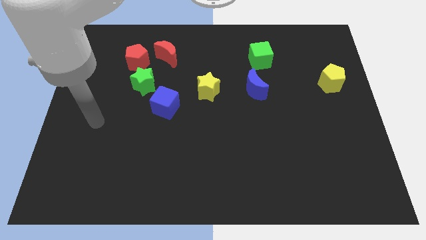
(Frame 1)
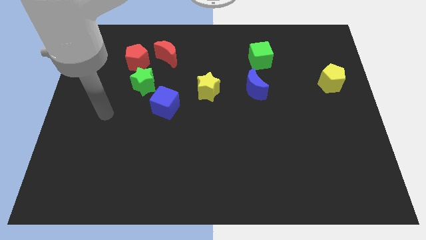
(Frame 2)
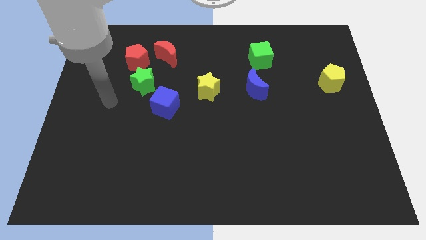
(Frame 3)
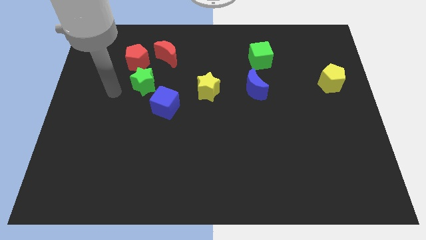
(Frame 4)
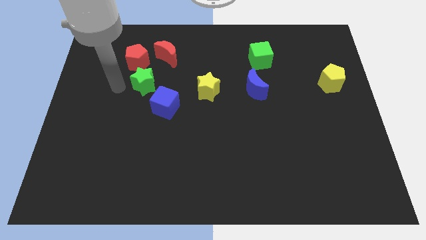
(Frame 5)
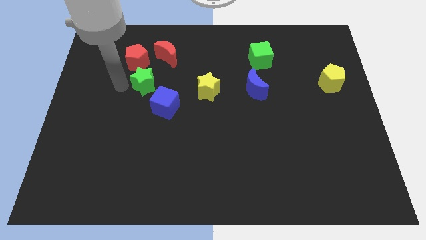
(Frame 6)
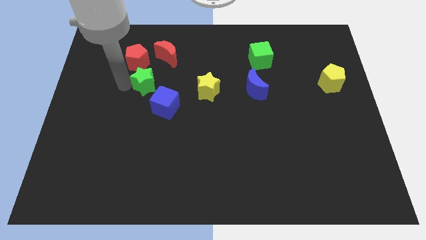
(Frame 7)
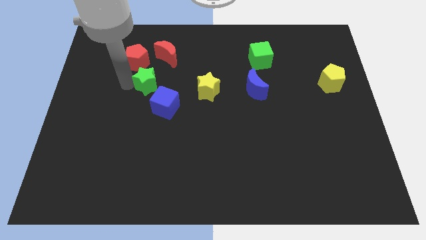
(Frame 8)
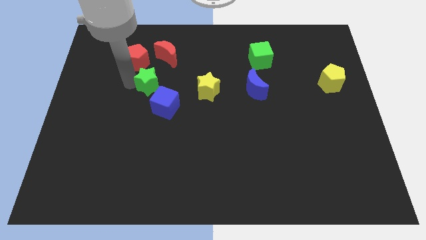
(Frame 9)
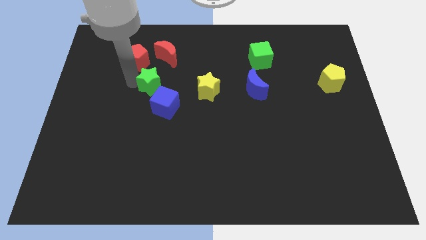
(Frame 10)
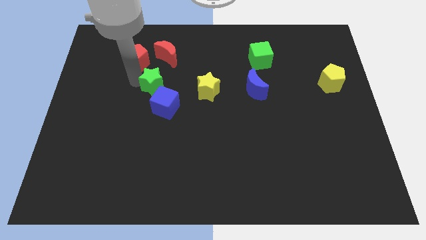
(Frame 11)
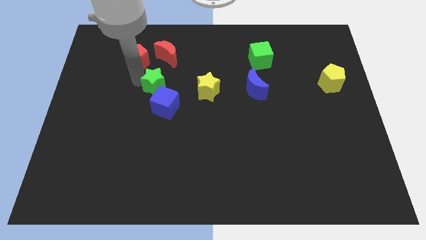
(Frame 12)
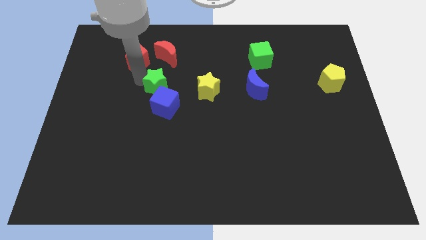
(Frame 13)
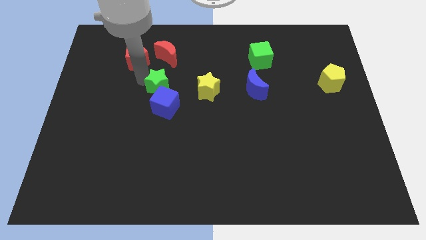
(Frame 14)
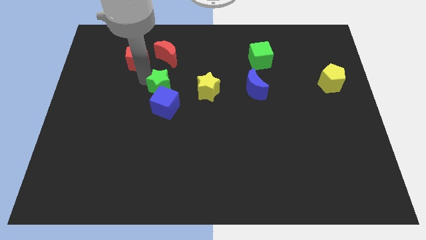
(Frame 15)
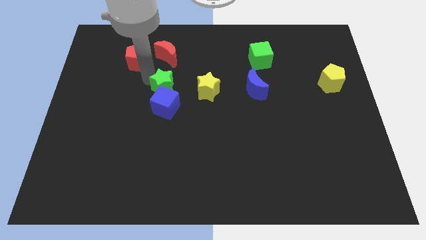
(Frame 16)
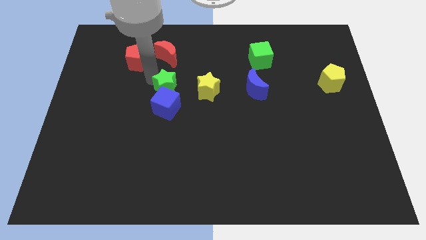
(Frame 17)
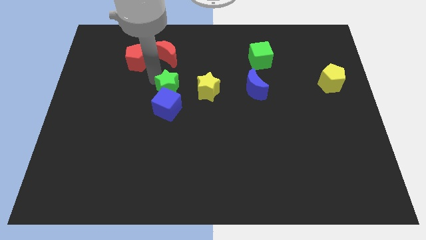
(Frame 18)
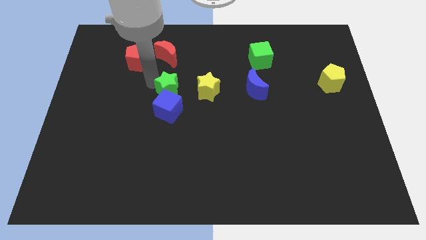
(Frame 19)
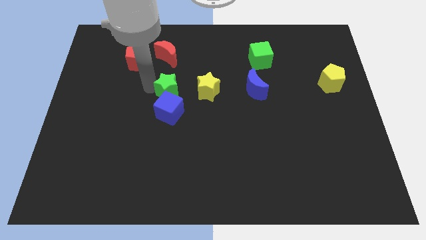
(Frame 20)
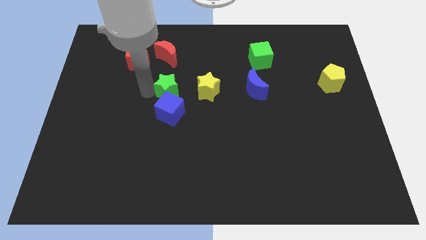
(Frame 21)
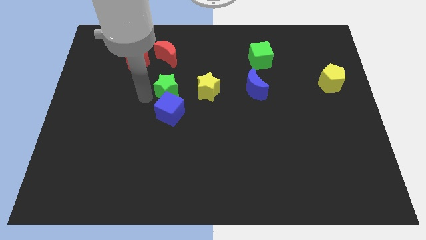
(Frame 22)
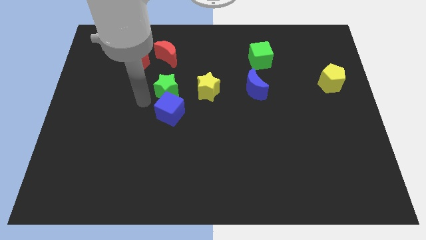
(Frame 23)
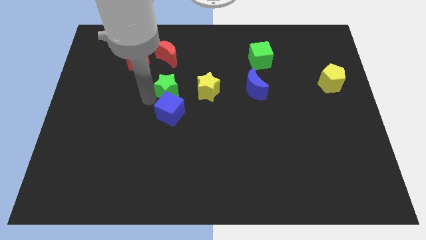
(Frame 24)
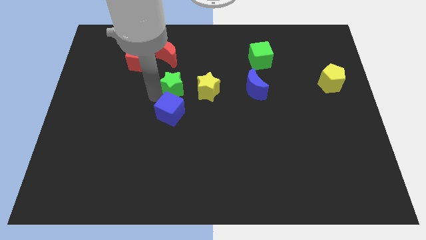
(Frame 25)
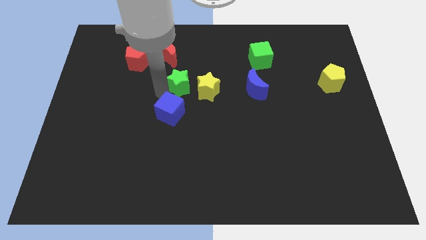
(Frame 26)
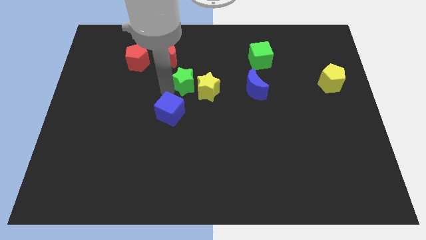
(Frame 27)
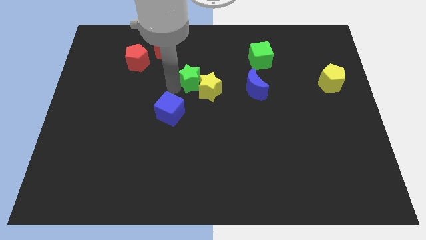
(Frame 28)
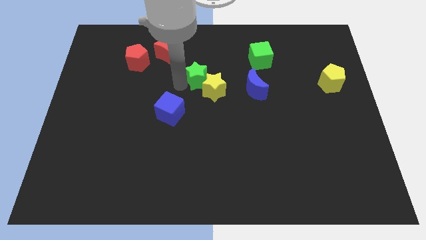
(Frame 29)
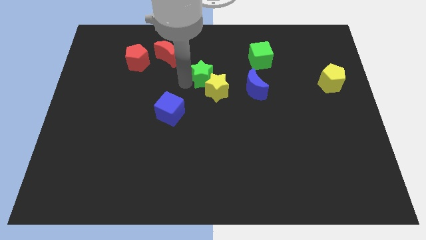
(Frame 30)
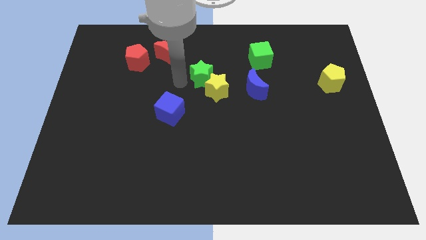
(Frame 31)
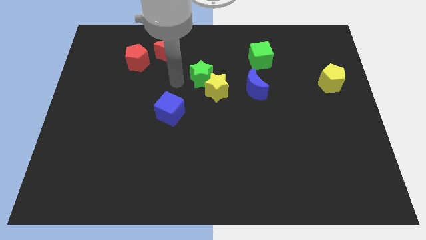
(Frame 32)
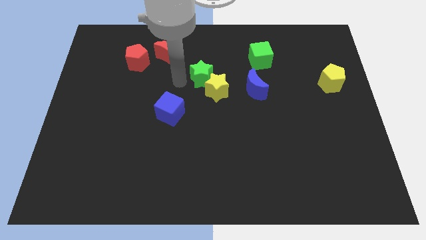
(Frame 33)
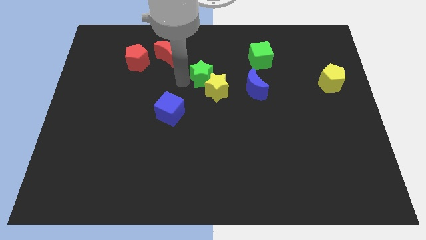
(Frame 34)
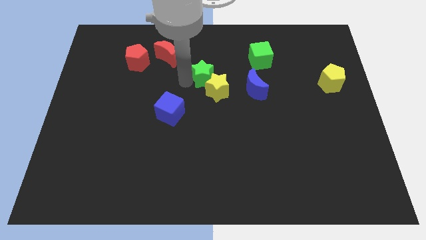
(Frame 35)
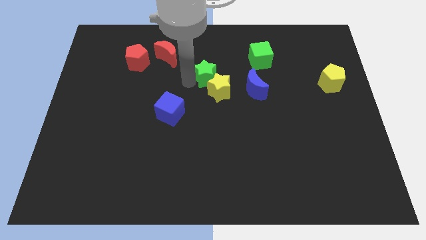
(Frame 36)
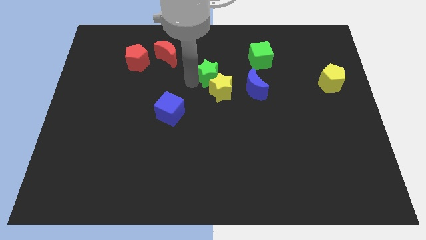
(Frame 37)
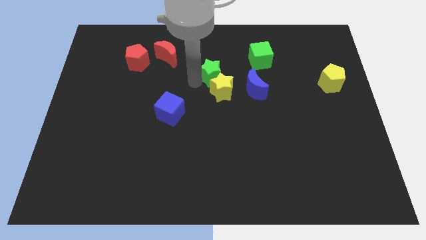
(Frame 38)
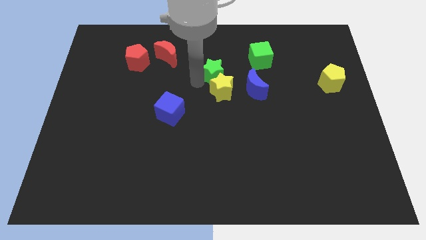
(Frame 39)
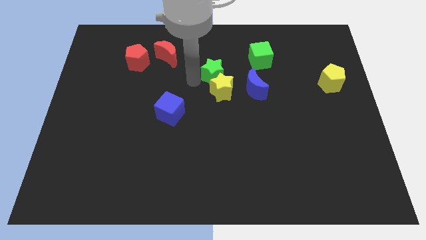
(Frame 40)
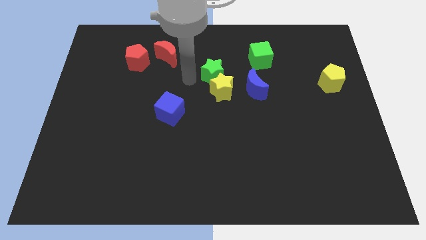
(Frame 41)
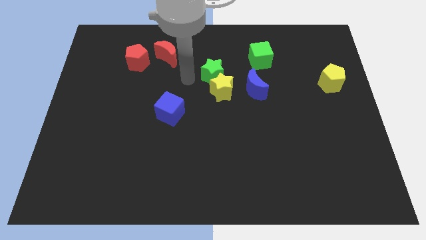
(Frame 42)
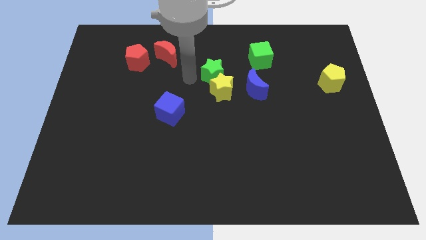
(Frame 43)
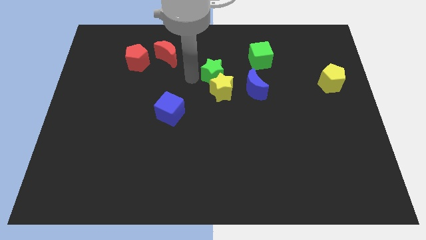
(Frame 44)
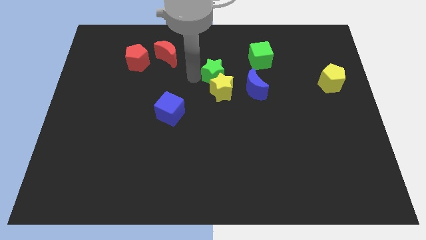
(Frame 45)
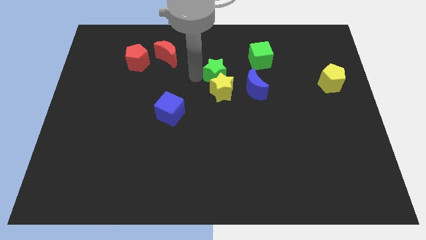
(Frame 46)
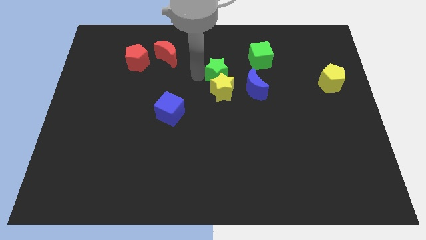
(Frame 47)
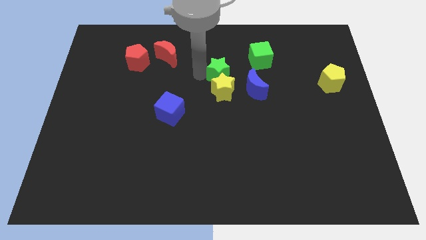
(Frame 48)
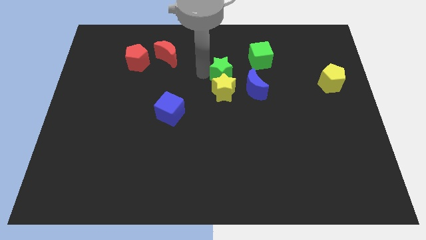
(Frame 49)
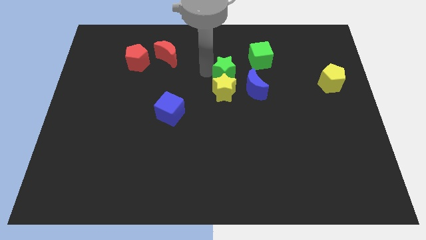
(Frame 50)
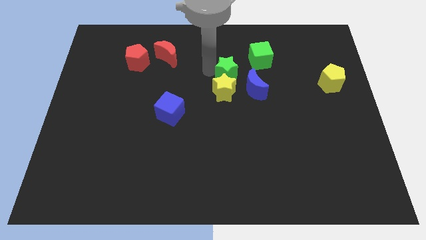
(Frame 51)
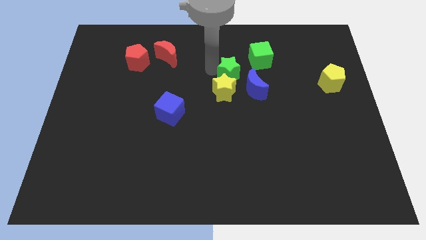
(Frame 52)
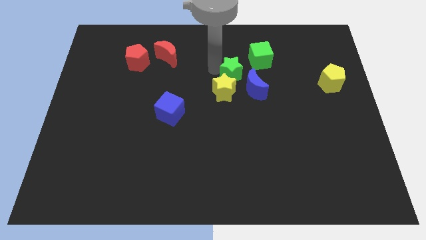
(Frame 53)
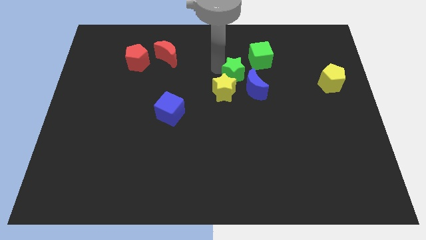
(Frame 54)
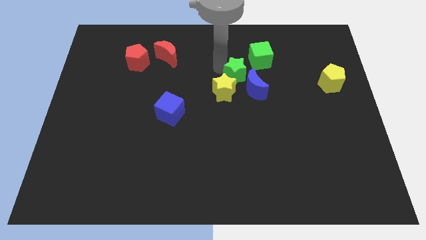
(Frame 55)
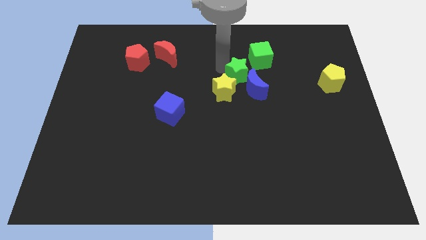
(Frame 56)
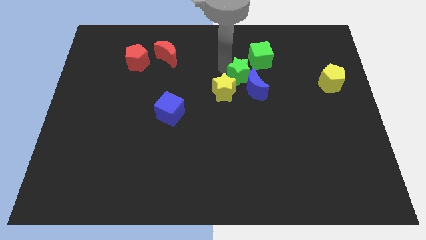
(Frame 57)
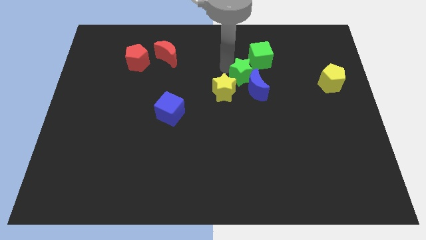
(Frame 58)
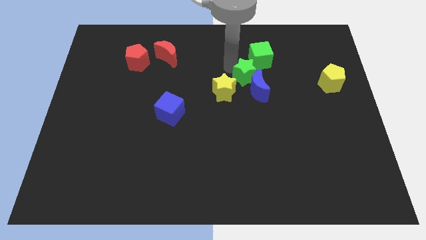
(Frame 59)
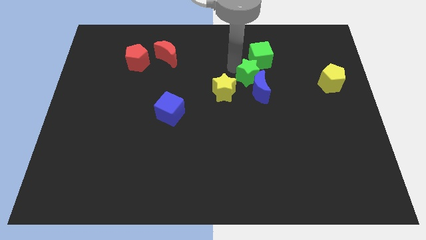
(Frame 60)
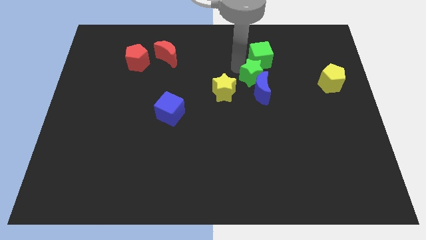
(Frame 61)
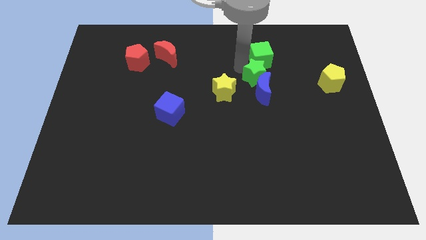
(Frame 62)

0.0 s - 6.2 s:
put the green star to the top right side of the blue moon
